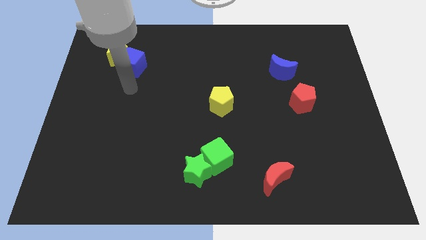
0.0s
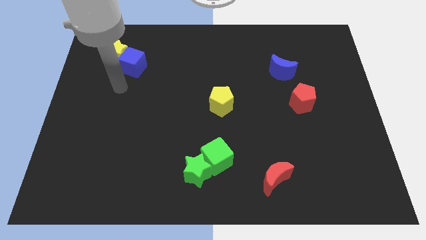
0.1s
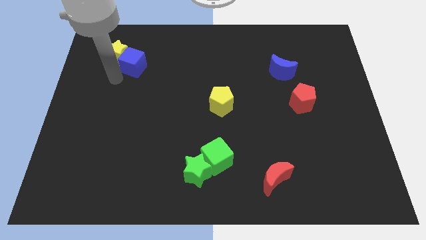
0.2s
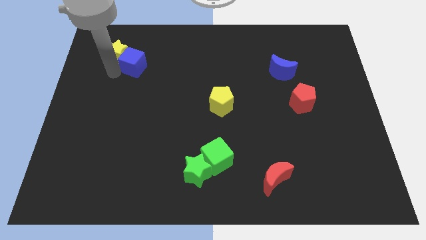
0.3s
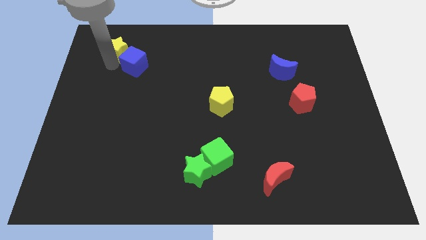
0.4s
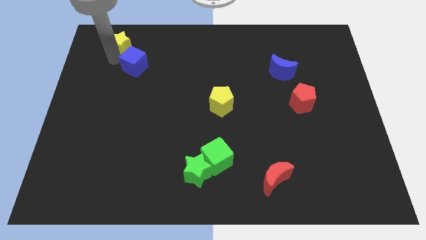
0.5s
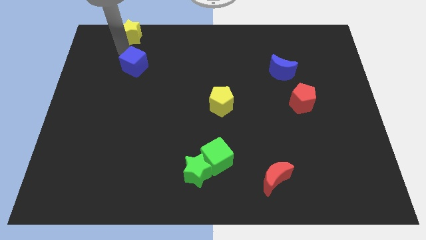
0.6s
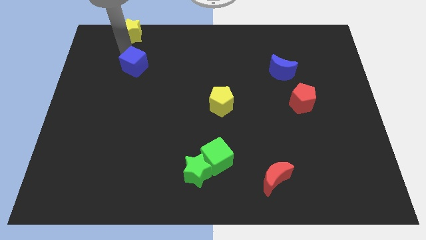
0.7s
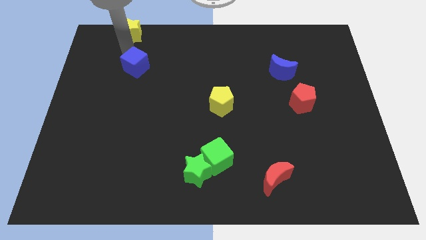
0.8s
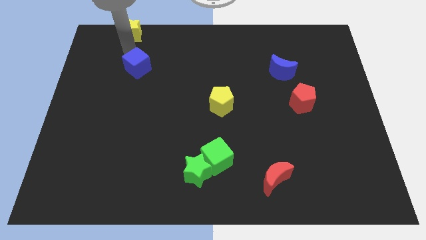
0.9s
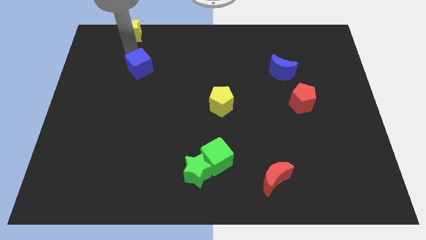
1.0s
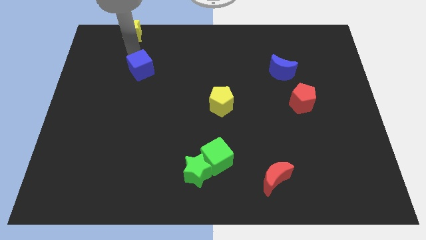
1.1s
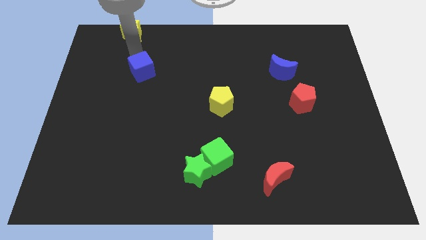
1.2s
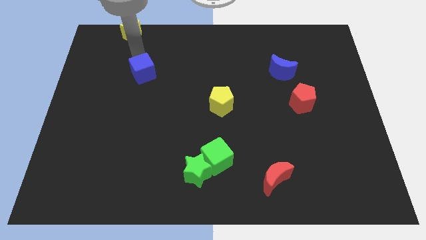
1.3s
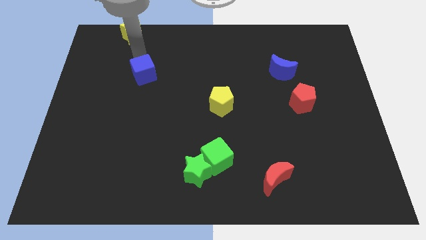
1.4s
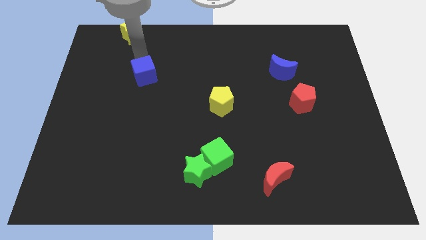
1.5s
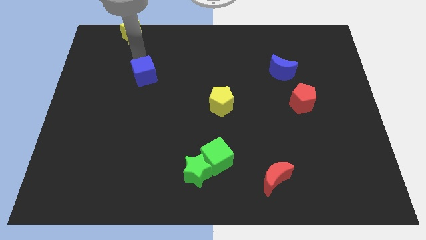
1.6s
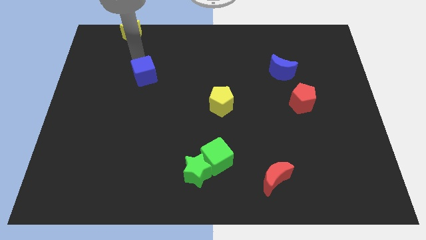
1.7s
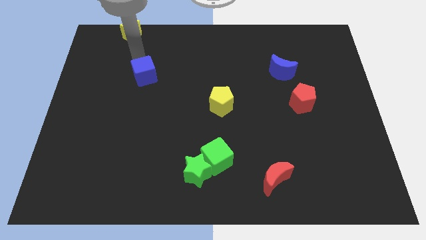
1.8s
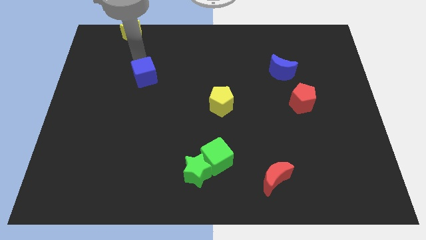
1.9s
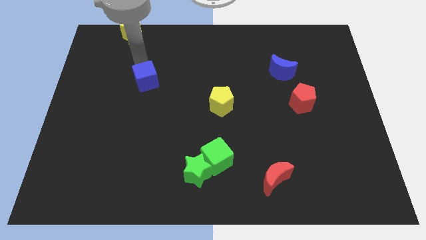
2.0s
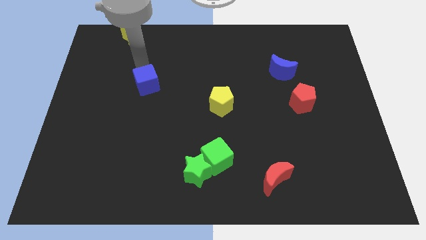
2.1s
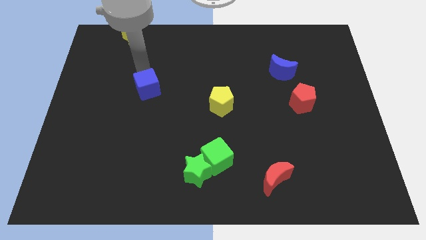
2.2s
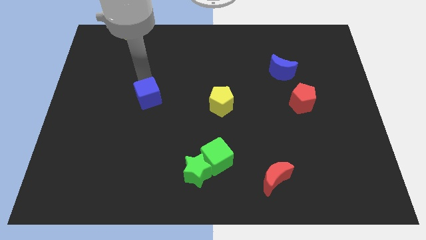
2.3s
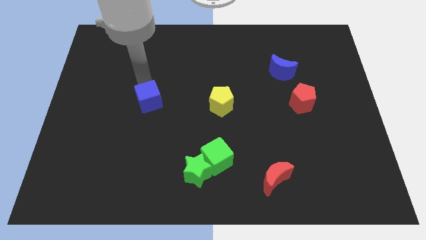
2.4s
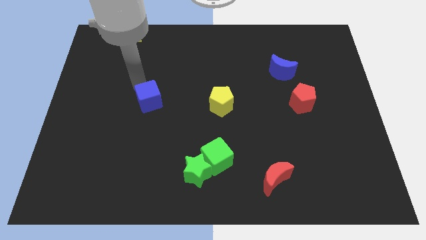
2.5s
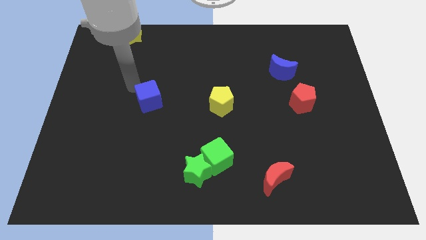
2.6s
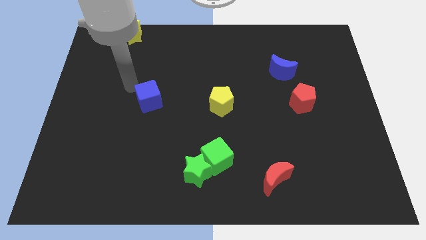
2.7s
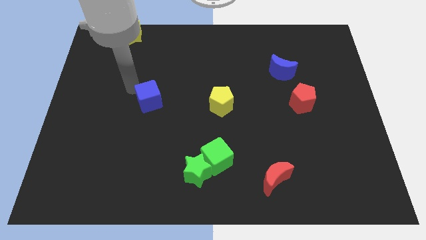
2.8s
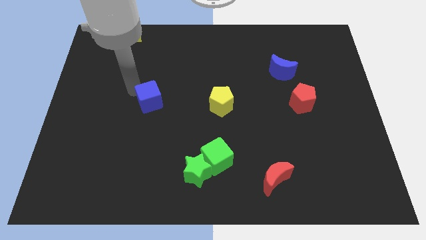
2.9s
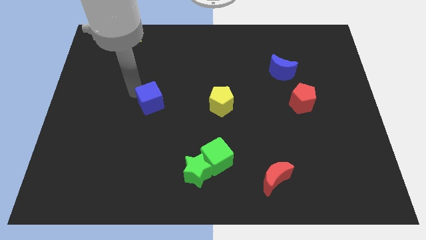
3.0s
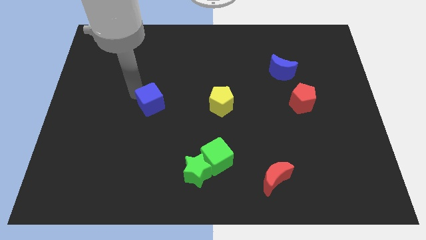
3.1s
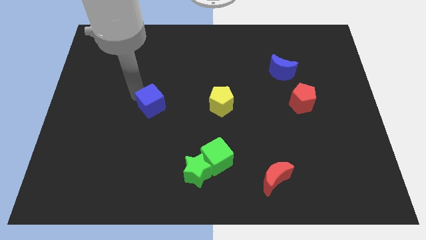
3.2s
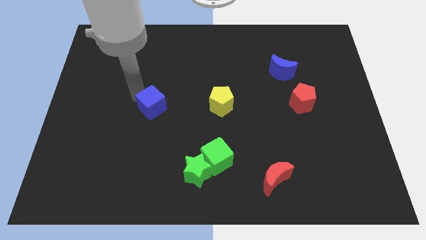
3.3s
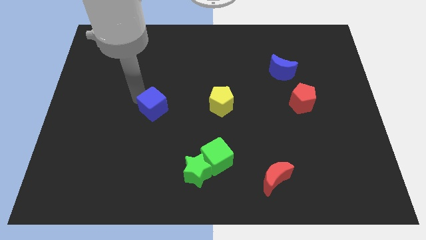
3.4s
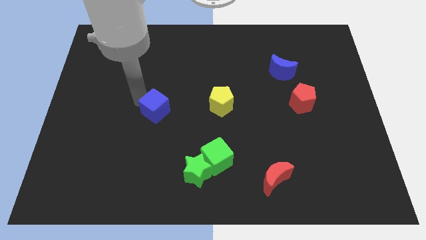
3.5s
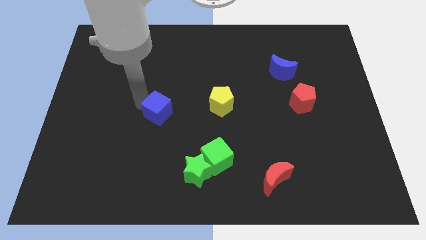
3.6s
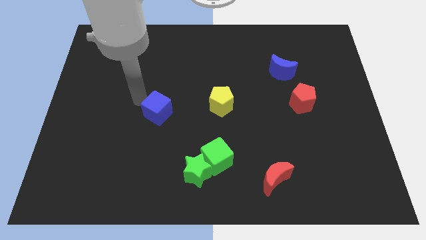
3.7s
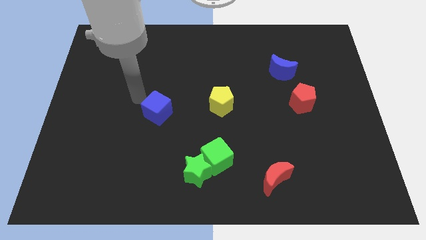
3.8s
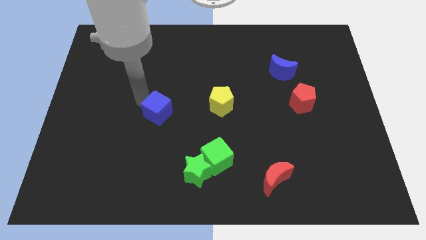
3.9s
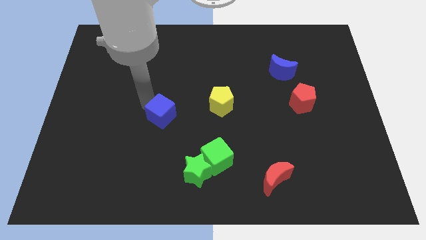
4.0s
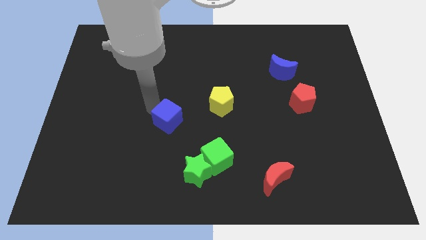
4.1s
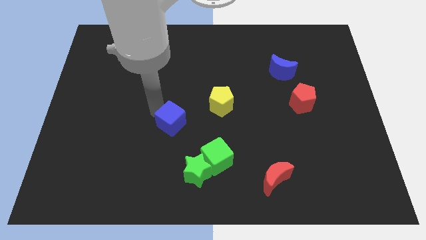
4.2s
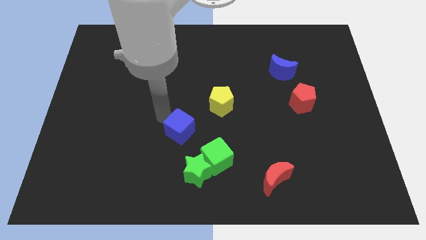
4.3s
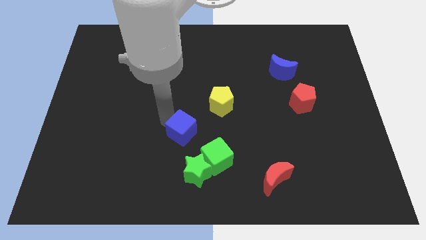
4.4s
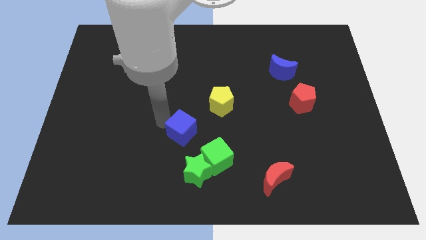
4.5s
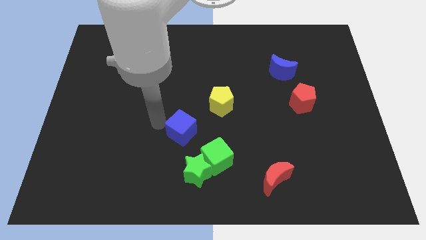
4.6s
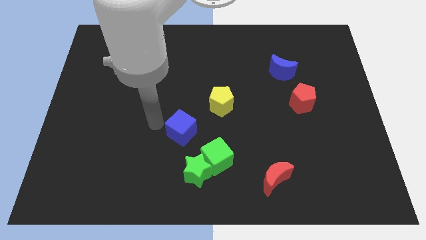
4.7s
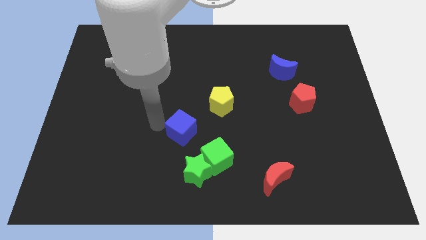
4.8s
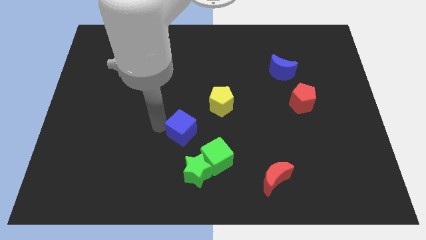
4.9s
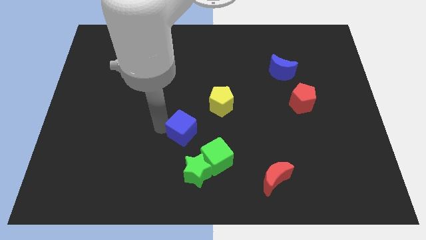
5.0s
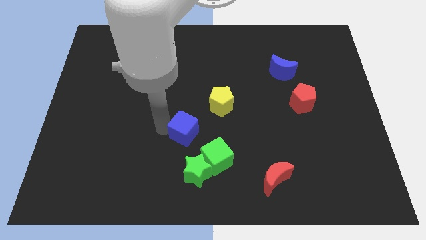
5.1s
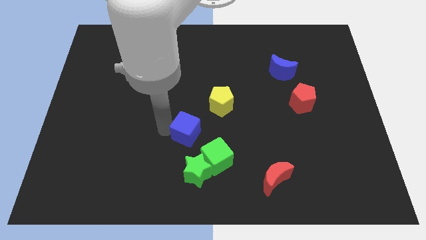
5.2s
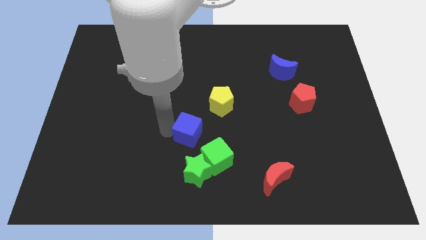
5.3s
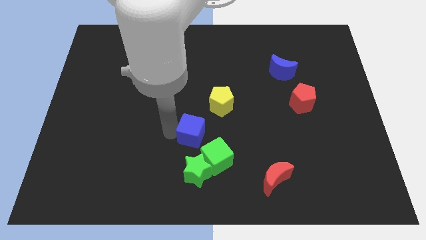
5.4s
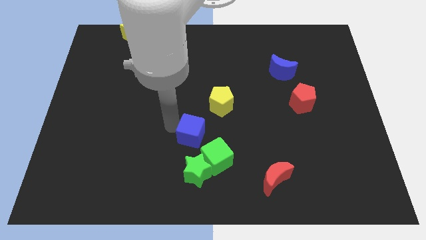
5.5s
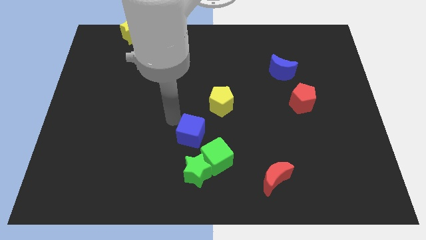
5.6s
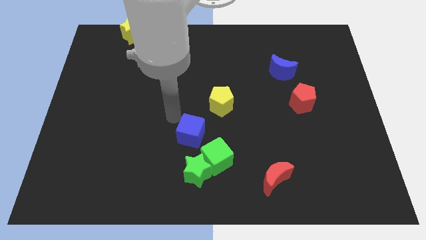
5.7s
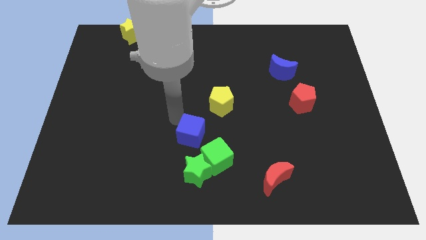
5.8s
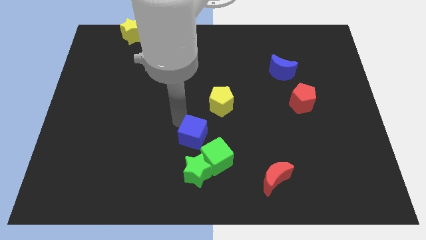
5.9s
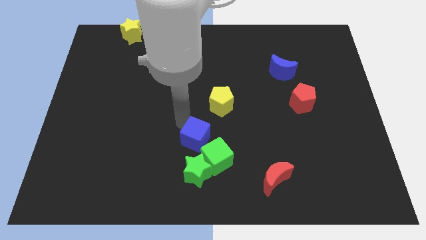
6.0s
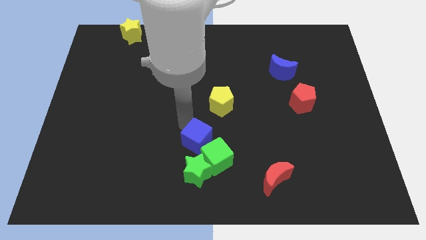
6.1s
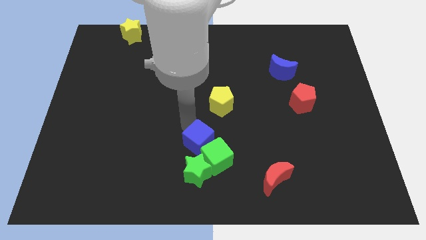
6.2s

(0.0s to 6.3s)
slide the blue cube towards the green cube

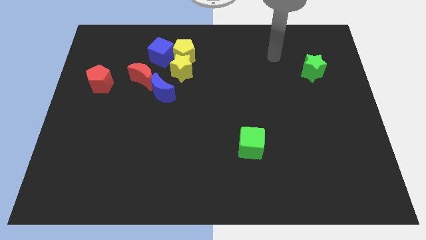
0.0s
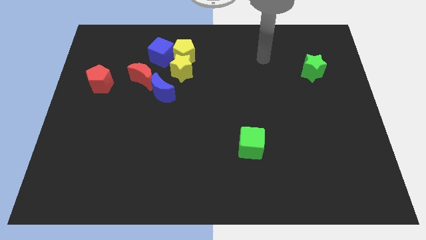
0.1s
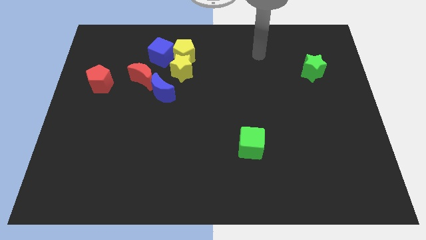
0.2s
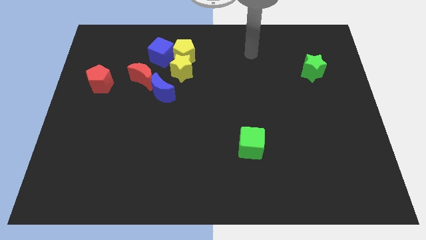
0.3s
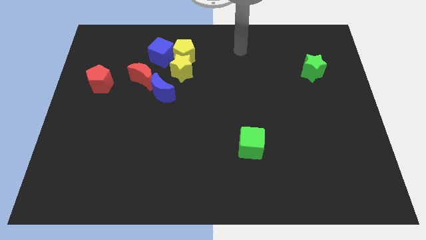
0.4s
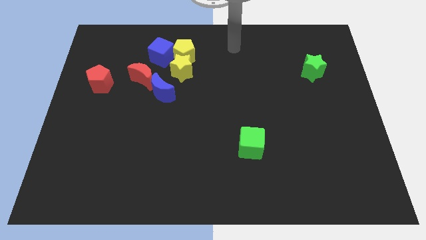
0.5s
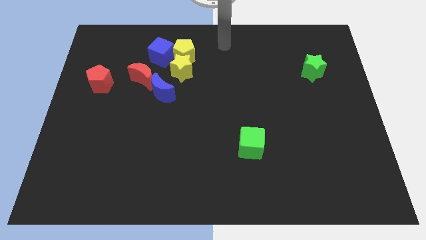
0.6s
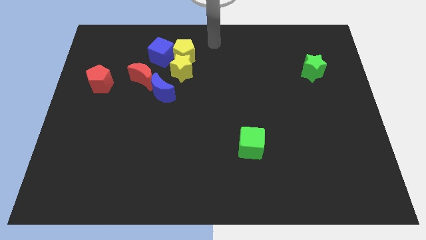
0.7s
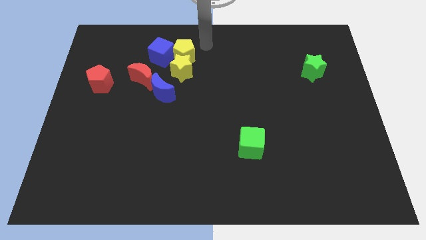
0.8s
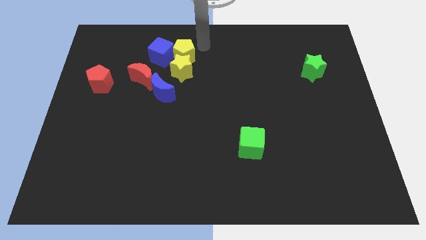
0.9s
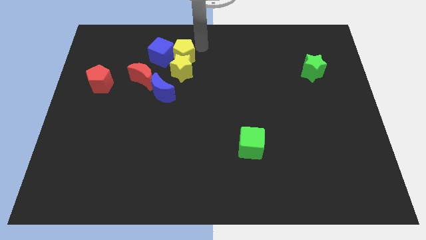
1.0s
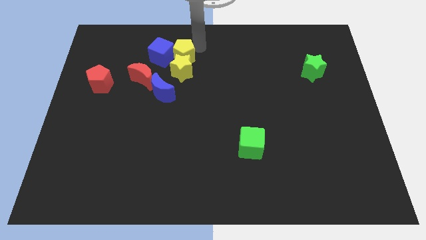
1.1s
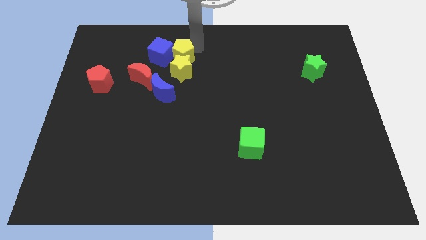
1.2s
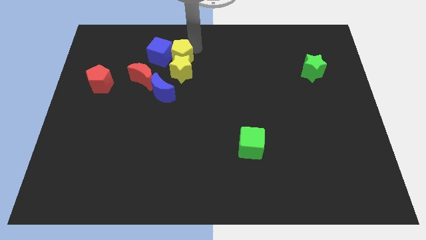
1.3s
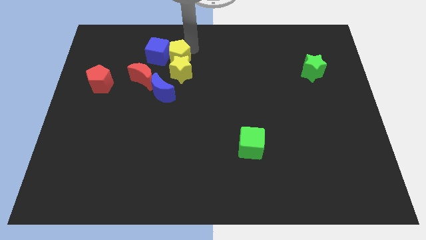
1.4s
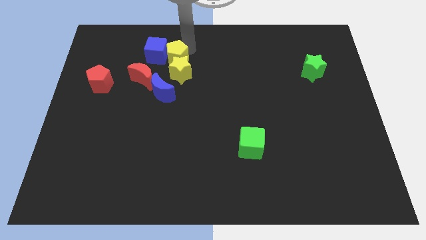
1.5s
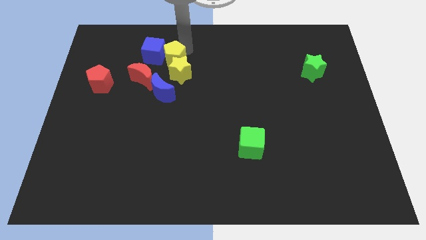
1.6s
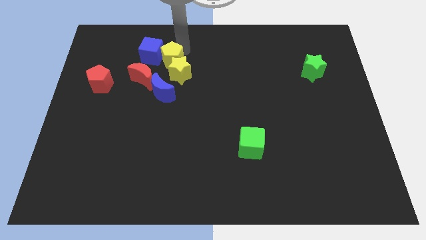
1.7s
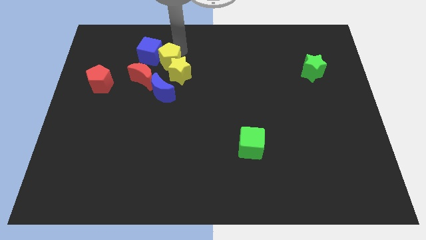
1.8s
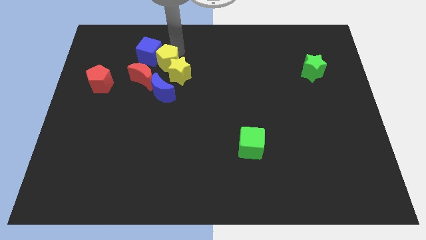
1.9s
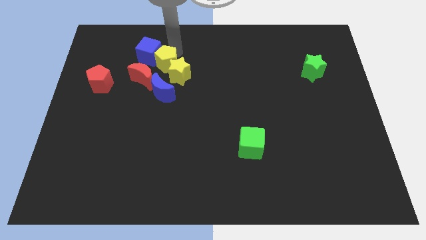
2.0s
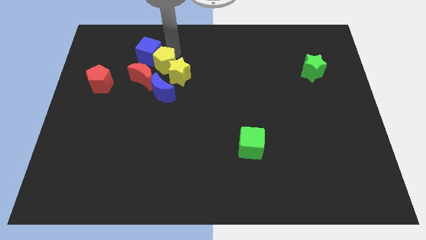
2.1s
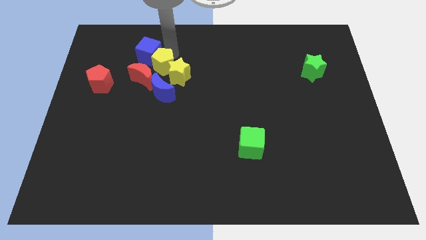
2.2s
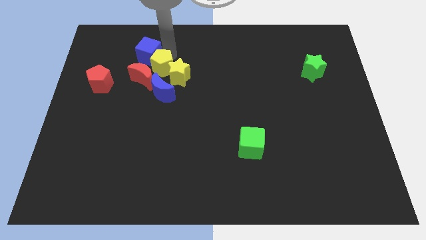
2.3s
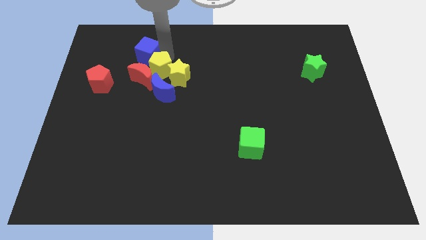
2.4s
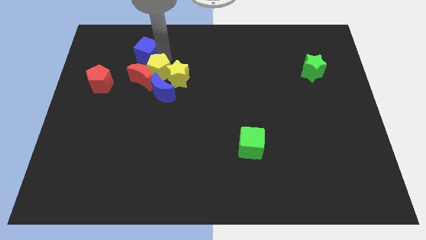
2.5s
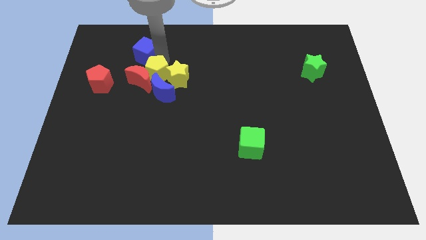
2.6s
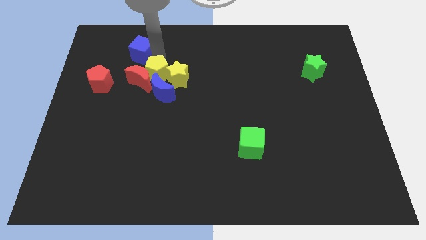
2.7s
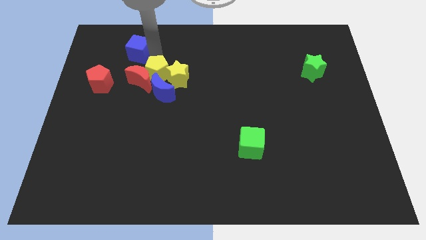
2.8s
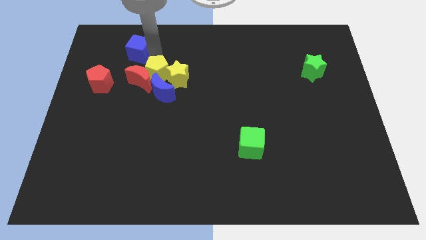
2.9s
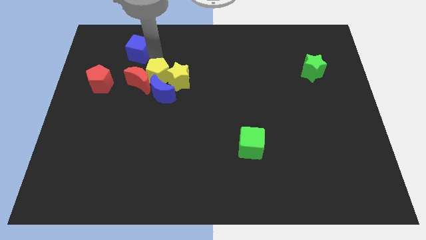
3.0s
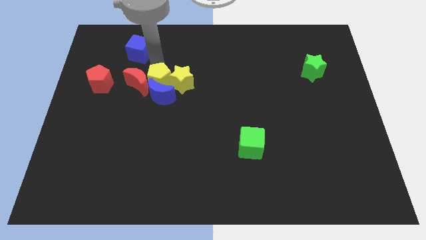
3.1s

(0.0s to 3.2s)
put the yellow pentagon to the blue moon
